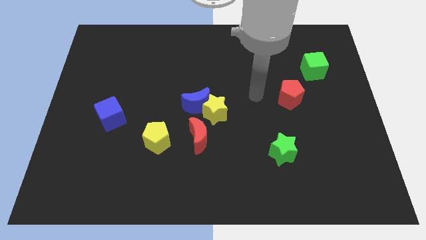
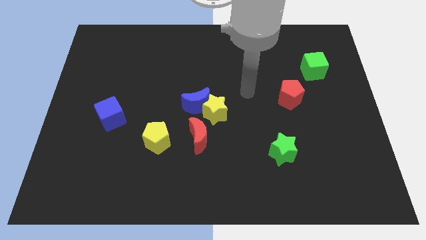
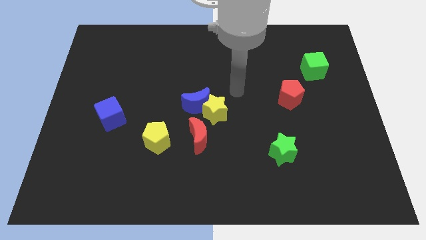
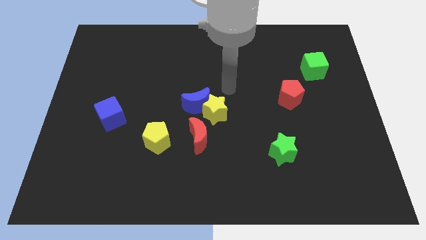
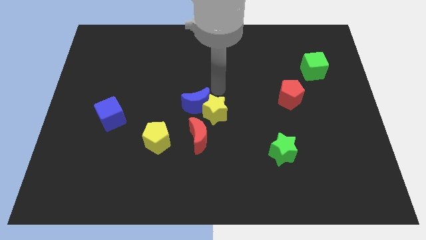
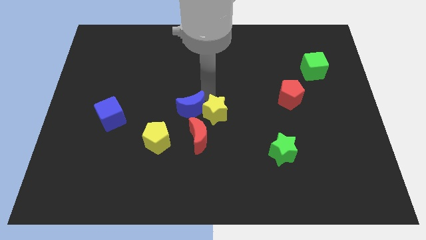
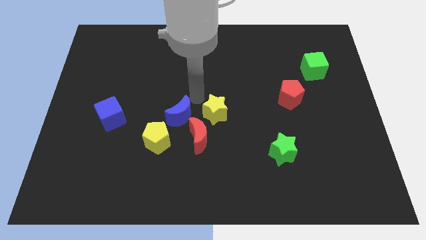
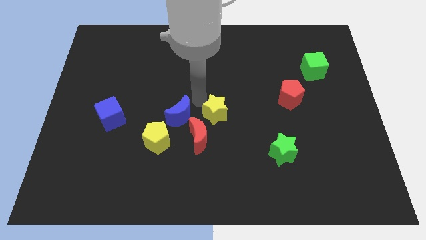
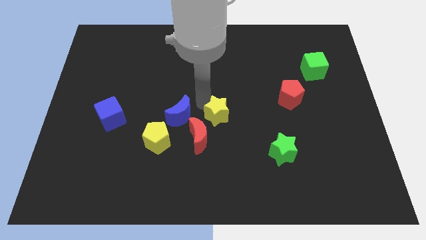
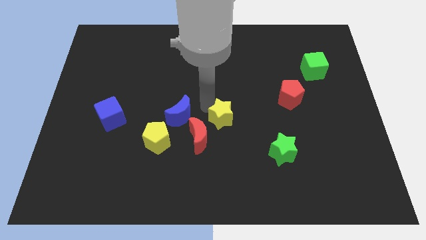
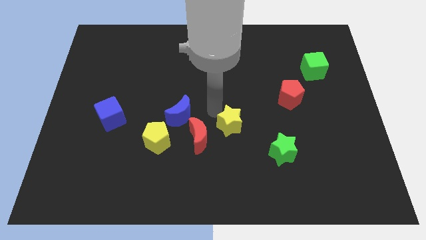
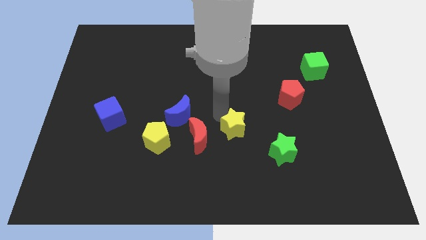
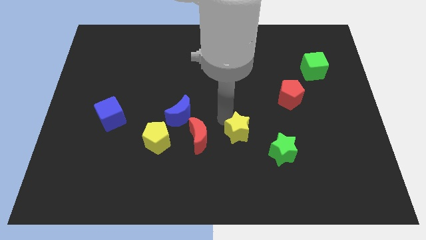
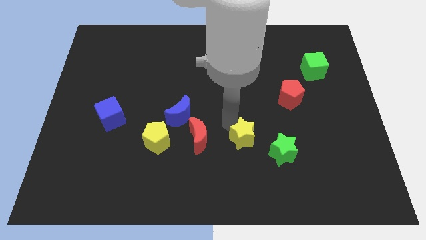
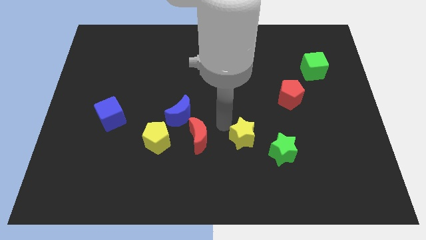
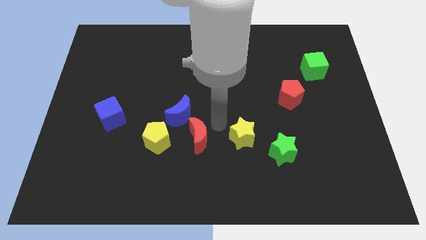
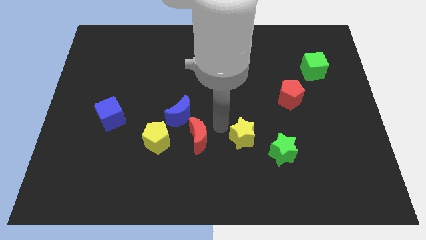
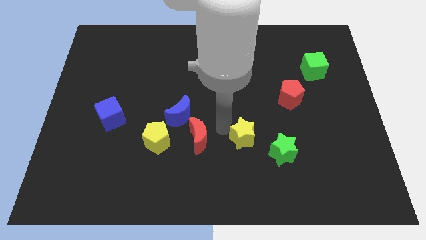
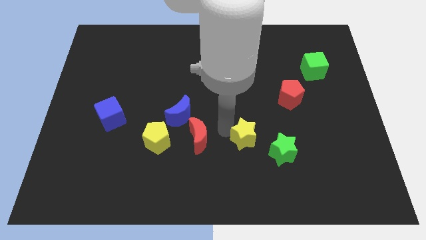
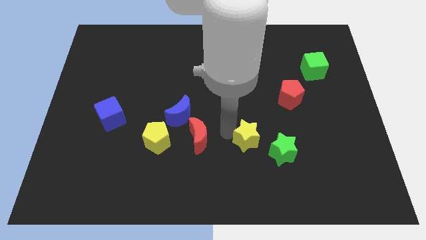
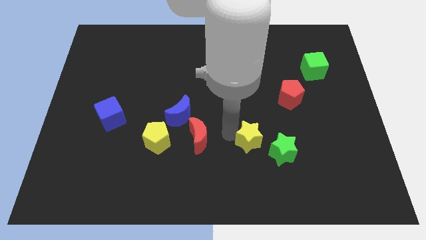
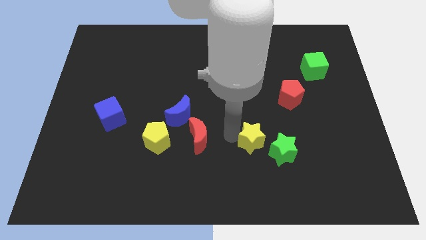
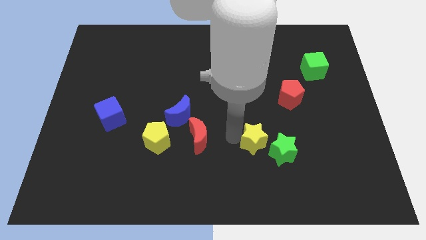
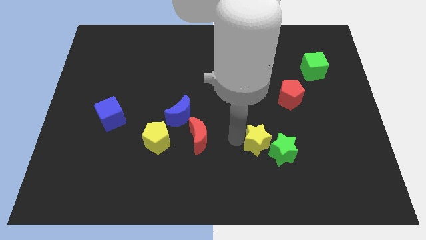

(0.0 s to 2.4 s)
move the yellow star next to the green star

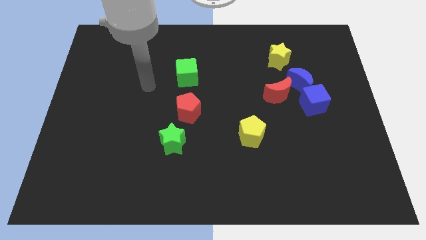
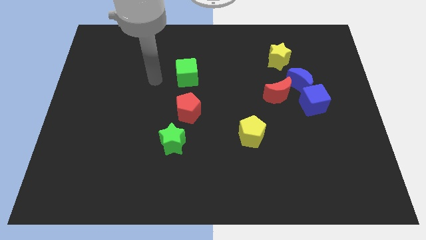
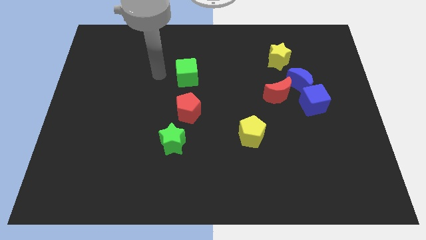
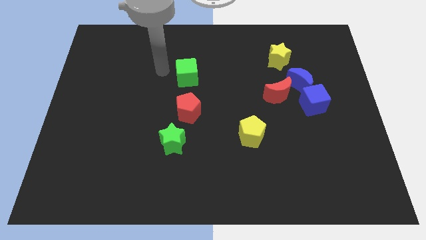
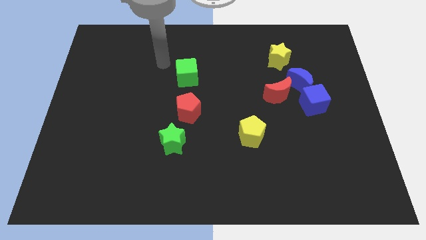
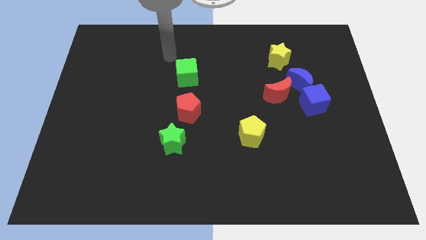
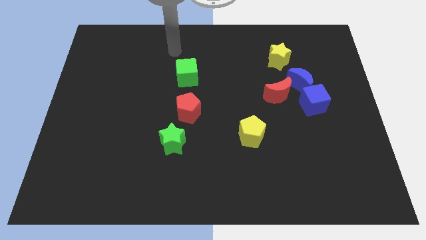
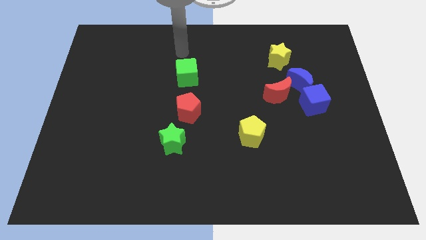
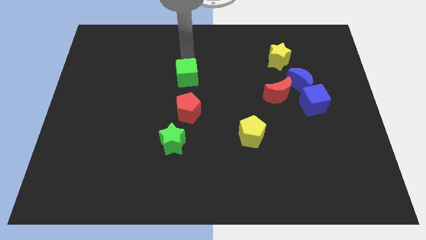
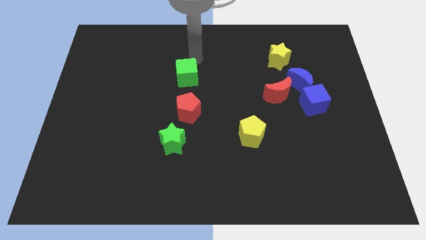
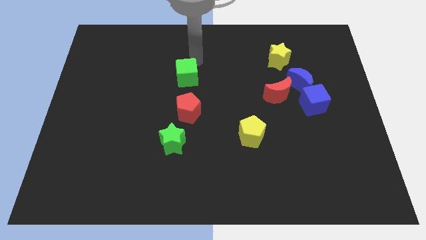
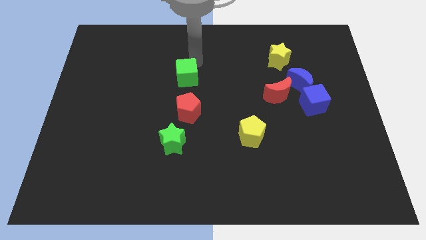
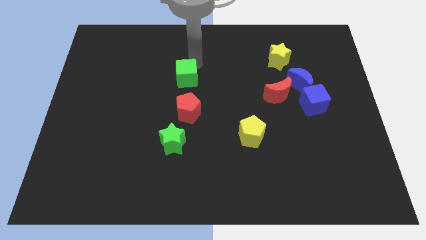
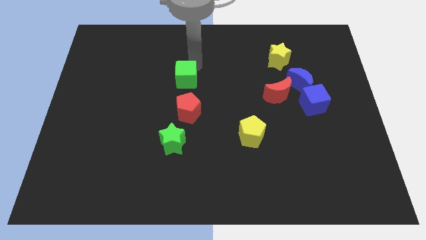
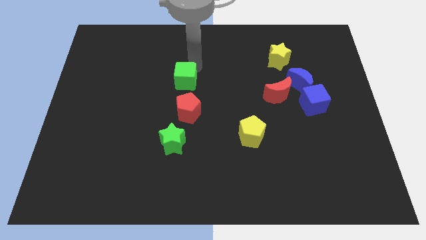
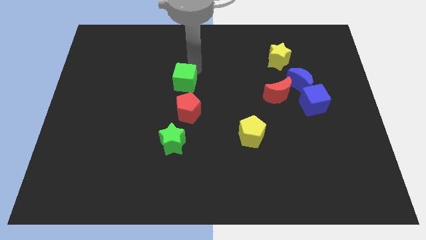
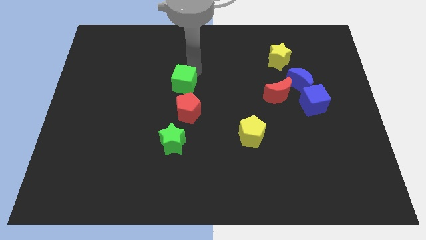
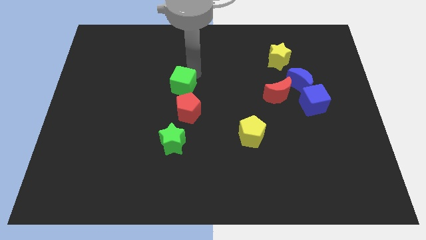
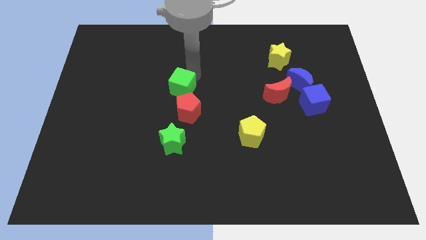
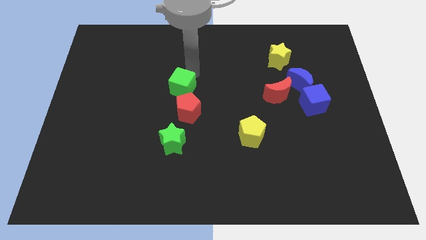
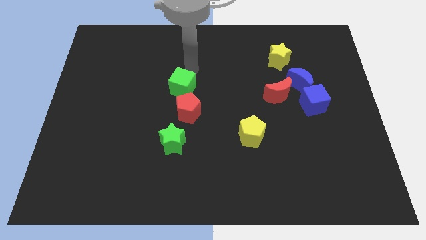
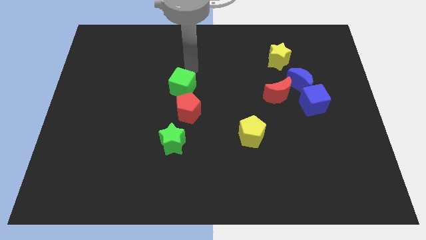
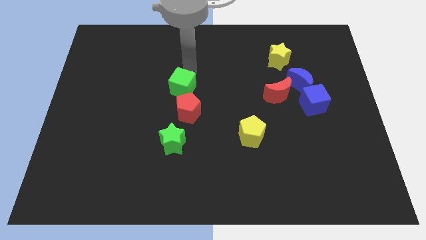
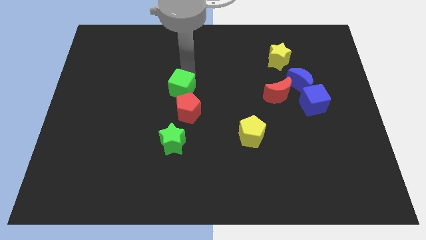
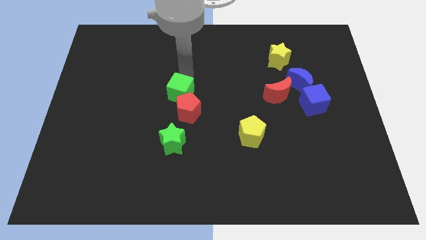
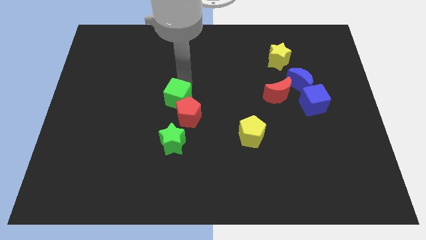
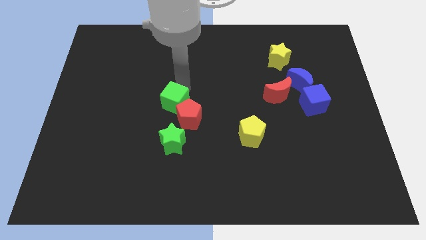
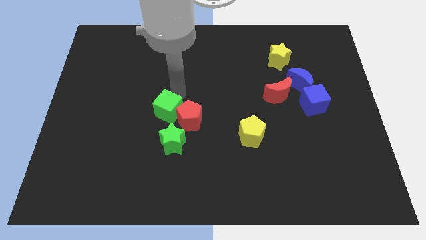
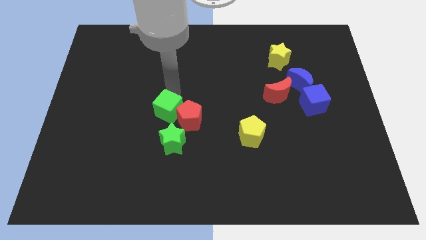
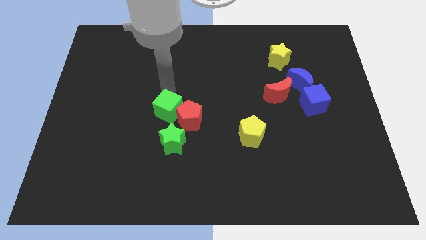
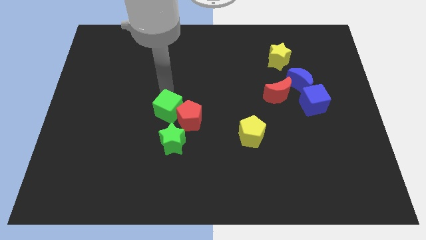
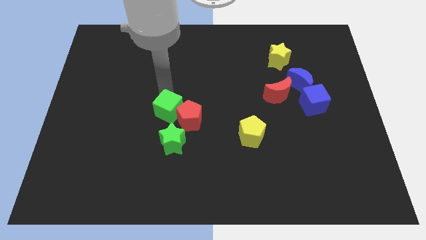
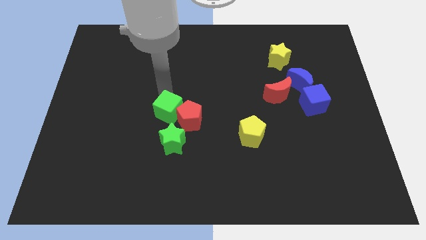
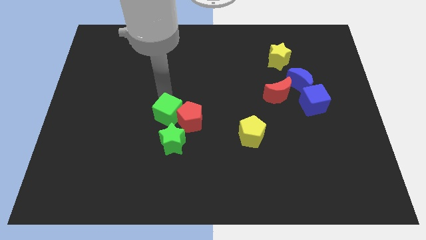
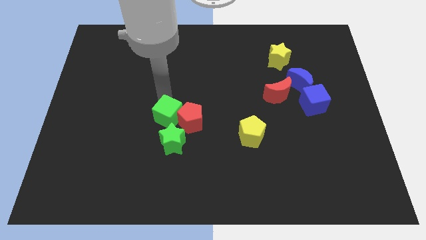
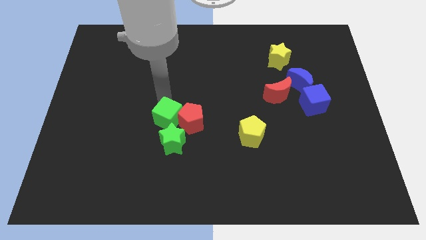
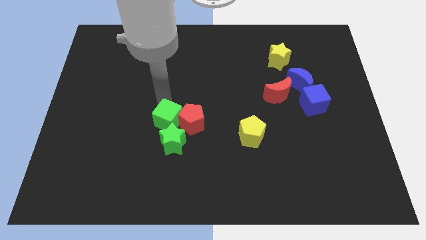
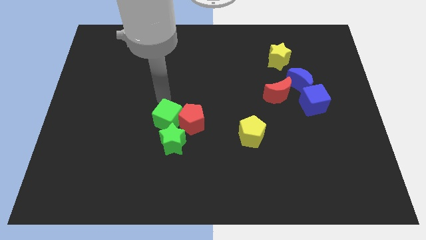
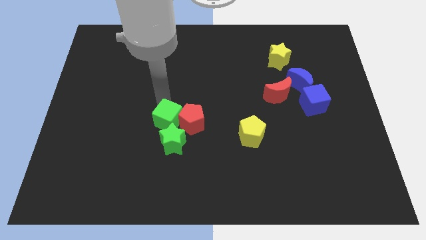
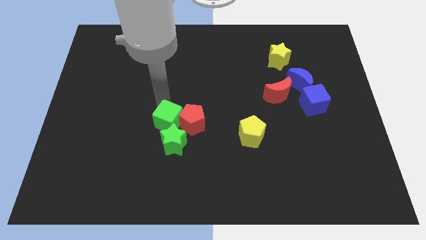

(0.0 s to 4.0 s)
move the green cube next to the green star

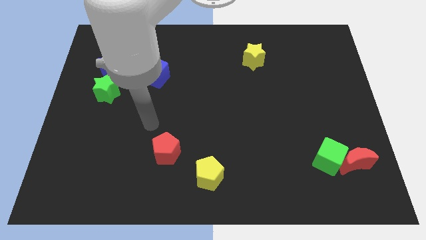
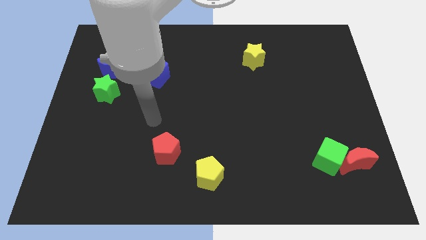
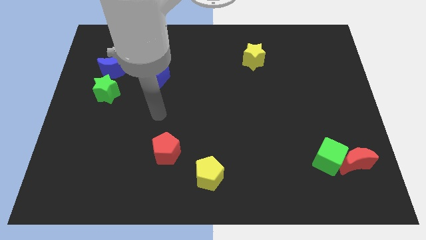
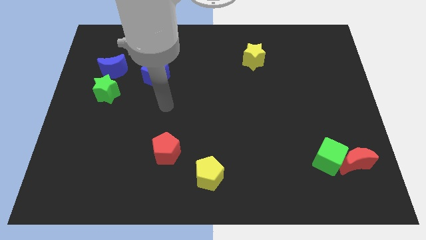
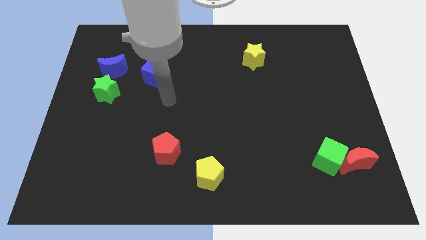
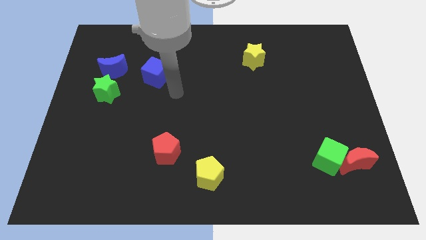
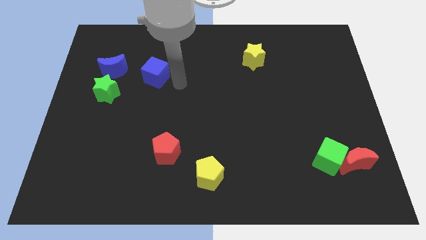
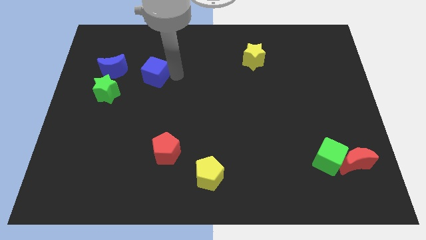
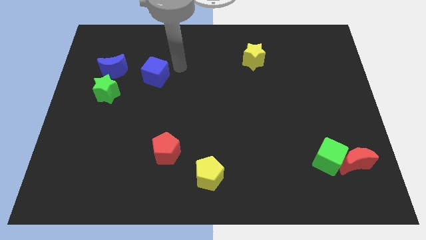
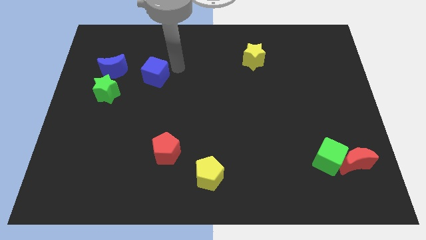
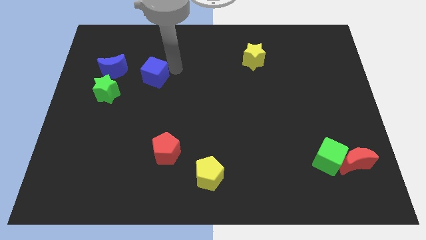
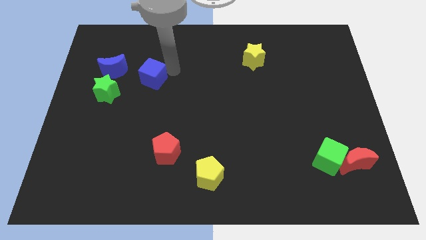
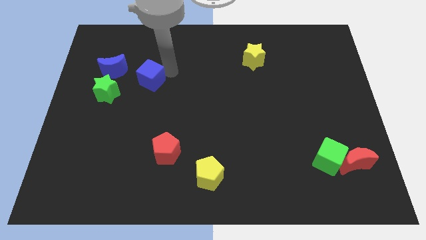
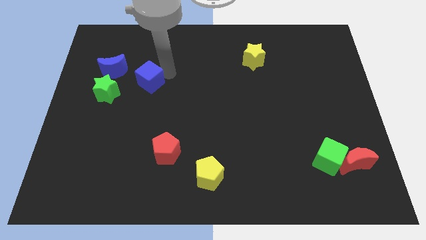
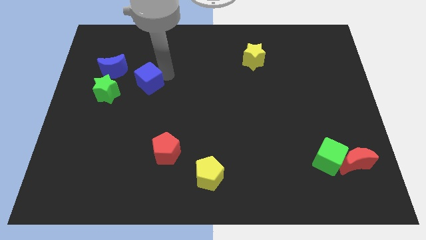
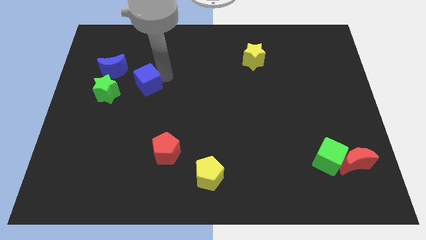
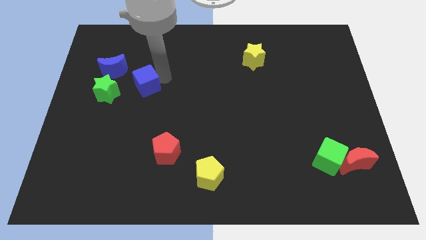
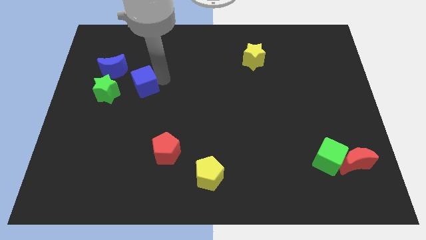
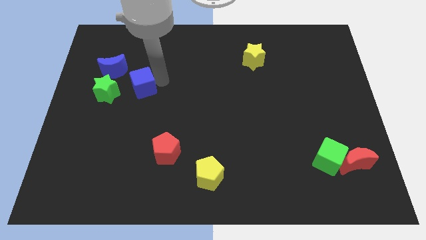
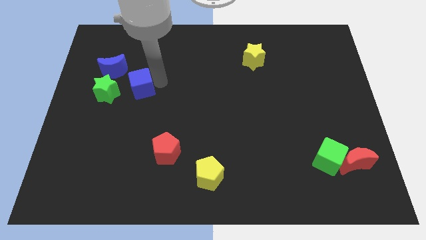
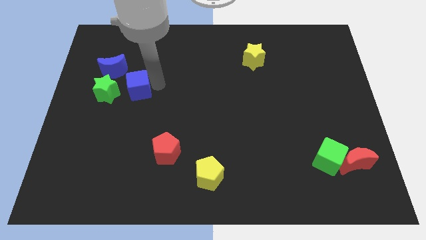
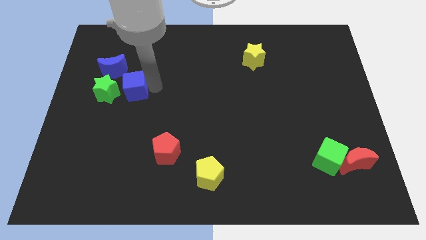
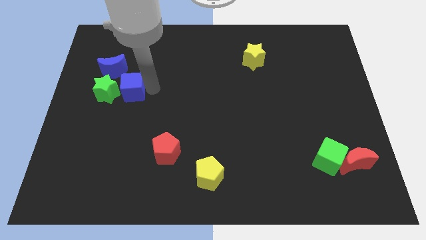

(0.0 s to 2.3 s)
push the blue cube next to the green star
